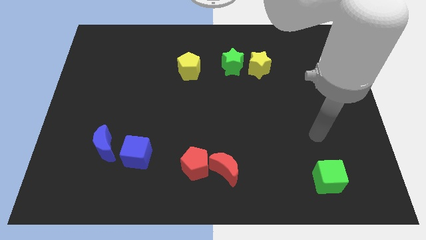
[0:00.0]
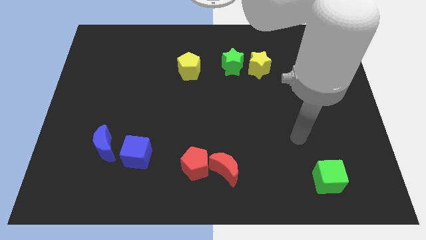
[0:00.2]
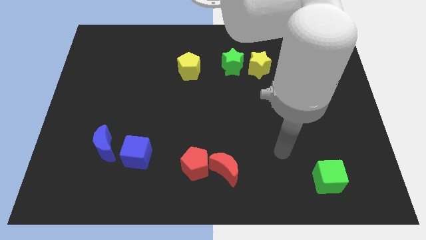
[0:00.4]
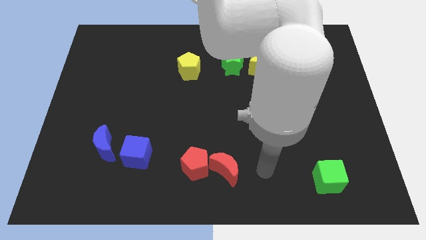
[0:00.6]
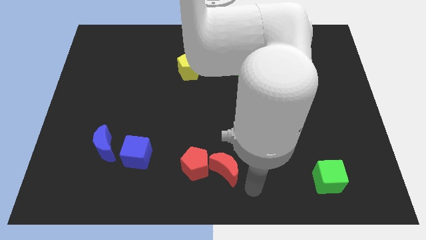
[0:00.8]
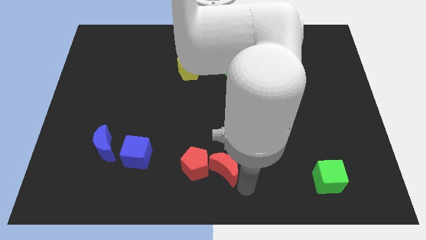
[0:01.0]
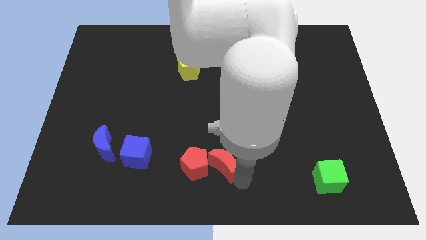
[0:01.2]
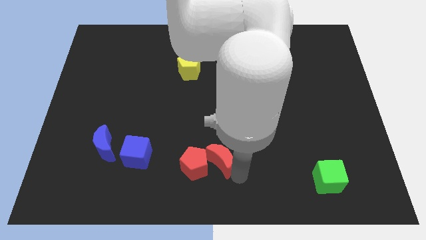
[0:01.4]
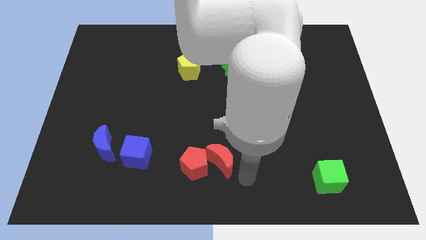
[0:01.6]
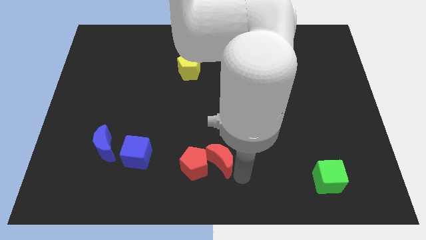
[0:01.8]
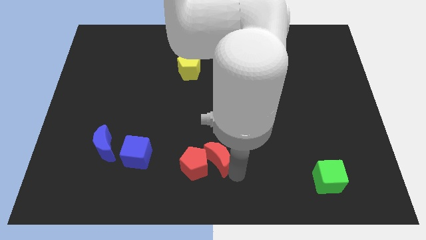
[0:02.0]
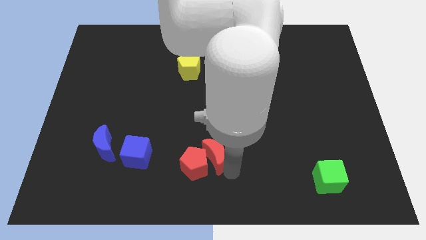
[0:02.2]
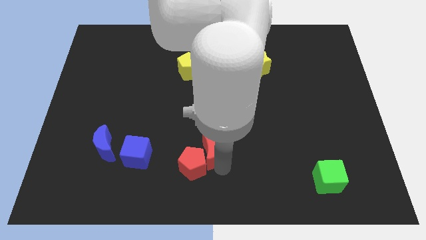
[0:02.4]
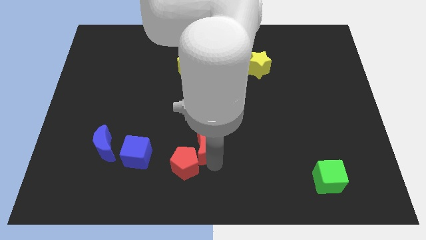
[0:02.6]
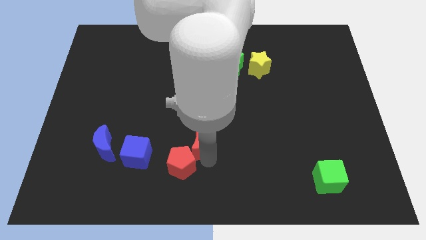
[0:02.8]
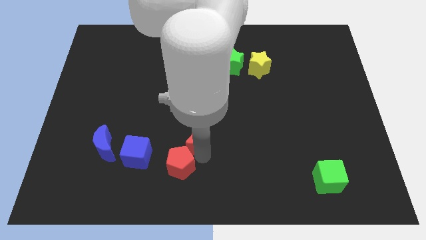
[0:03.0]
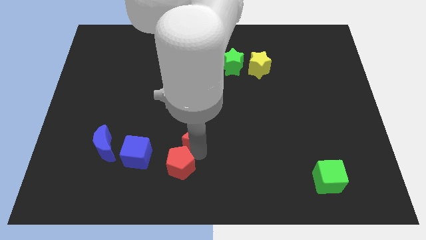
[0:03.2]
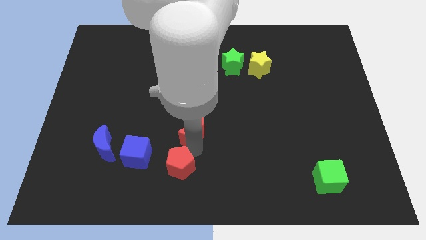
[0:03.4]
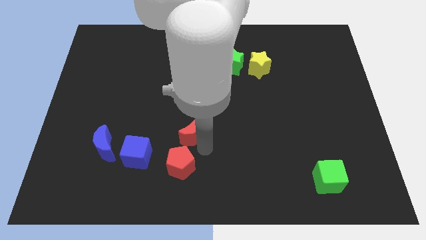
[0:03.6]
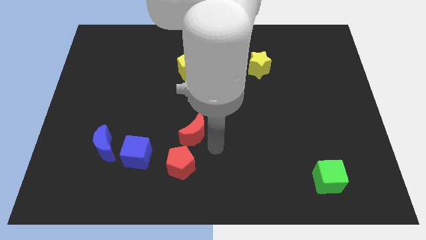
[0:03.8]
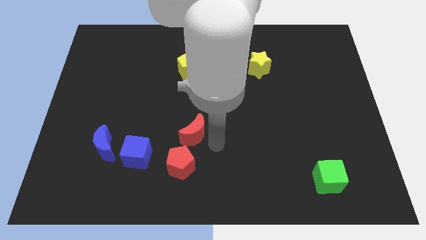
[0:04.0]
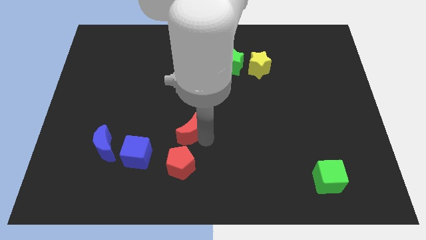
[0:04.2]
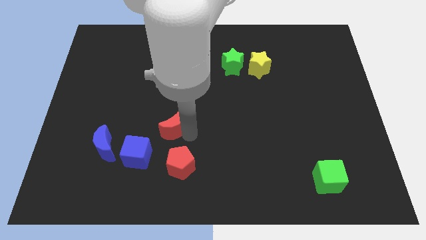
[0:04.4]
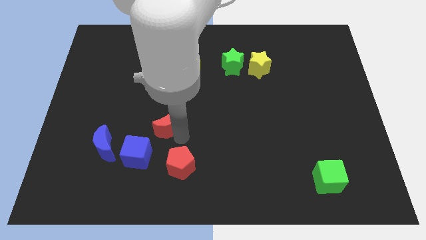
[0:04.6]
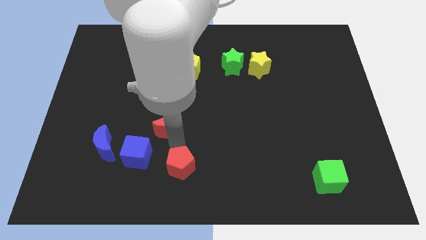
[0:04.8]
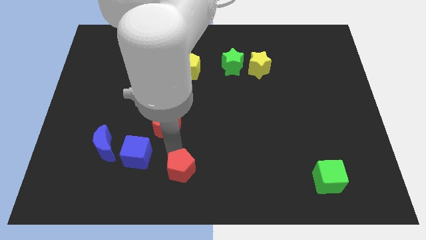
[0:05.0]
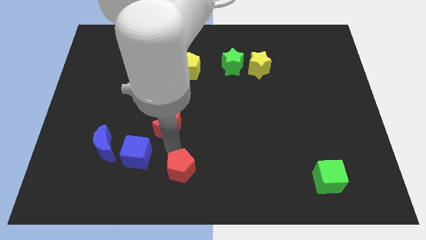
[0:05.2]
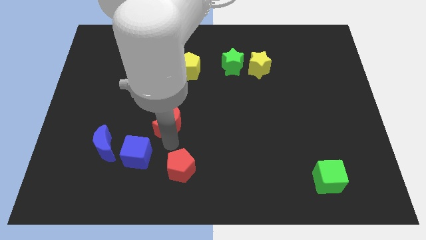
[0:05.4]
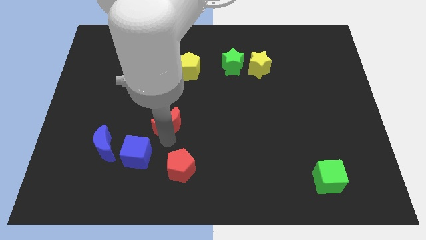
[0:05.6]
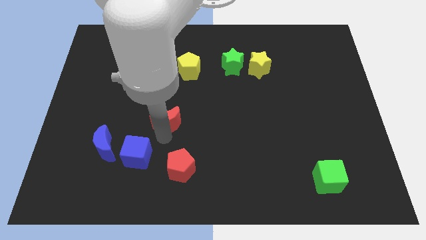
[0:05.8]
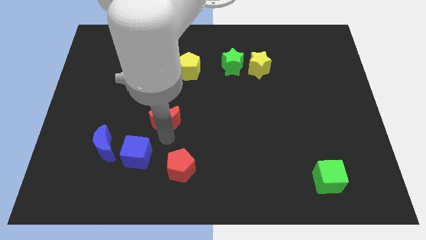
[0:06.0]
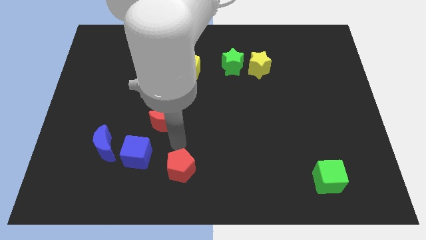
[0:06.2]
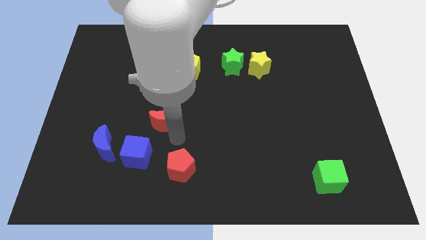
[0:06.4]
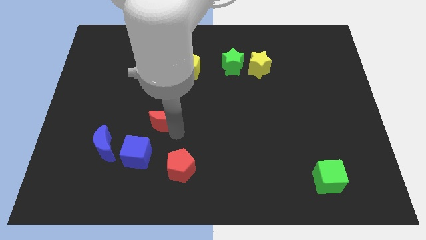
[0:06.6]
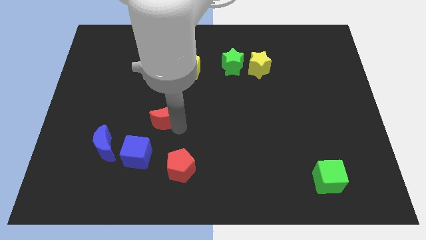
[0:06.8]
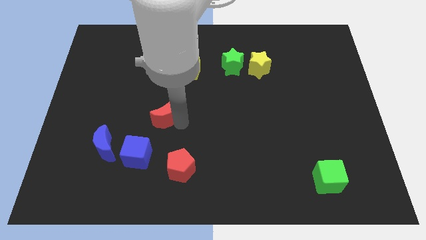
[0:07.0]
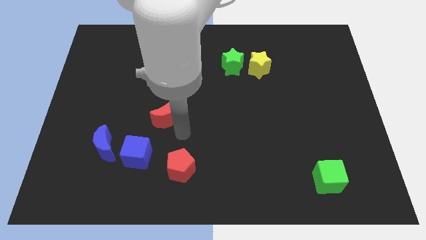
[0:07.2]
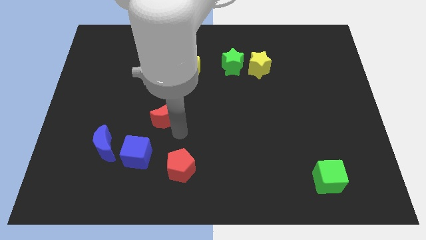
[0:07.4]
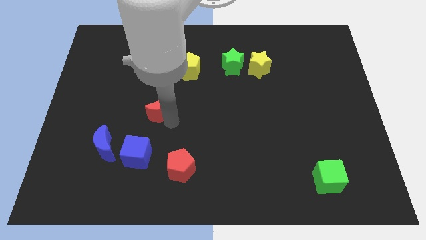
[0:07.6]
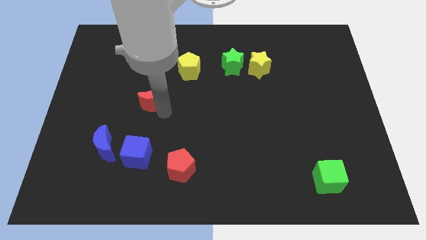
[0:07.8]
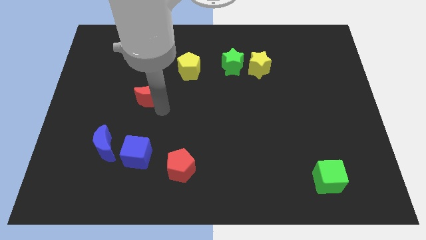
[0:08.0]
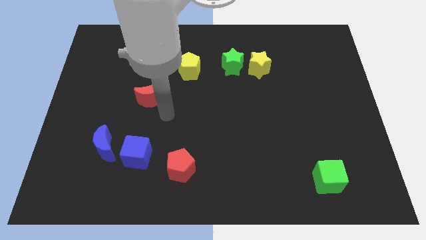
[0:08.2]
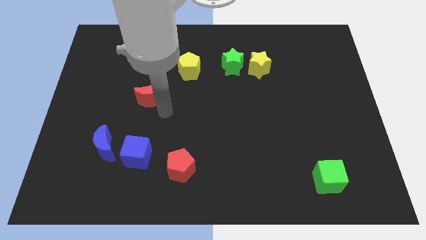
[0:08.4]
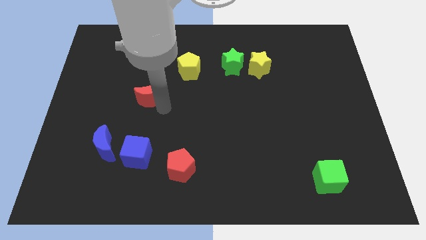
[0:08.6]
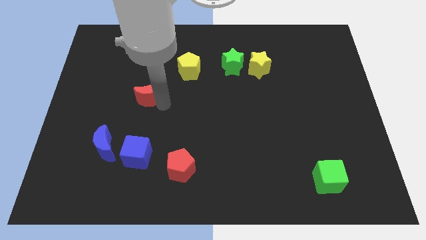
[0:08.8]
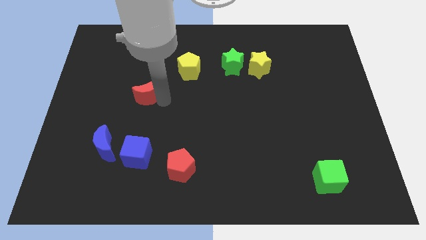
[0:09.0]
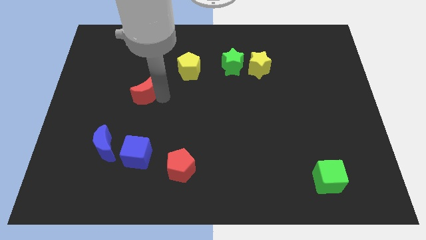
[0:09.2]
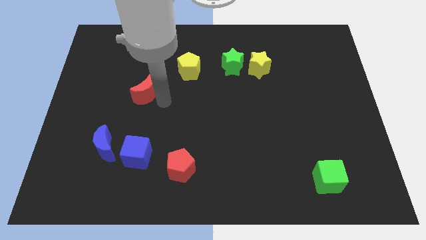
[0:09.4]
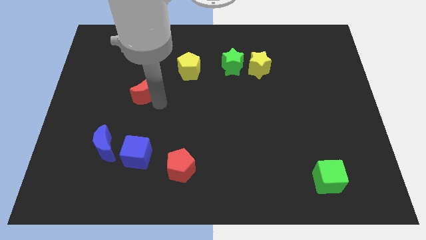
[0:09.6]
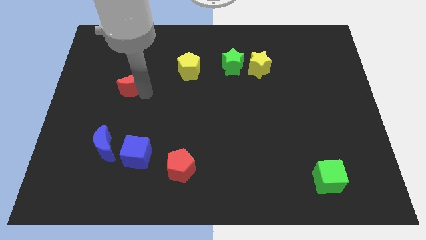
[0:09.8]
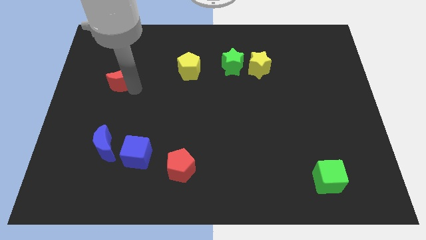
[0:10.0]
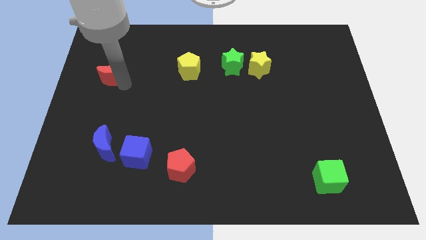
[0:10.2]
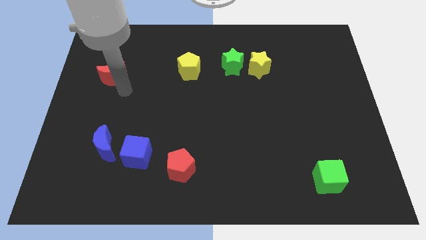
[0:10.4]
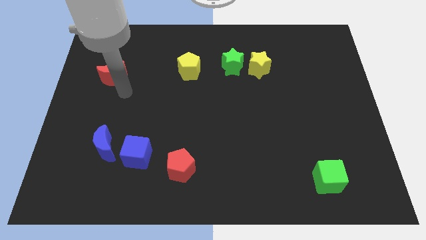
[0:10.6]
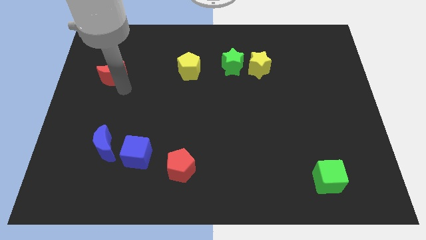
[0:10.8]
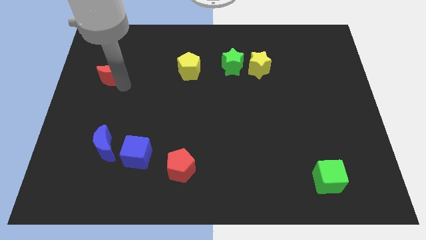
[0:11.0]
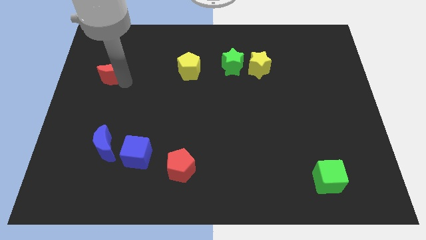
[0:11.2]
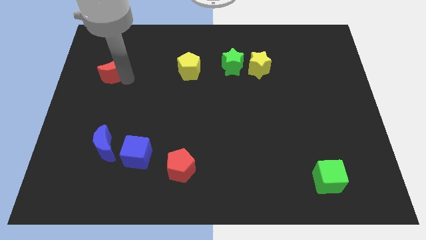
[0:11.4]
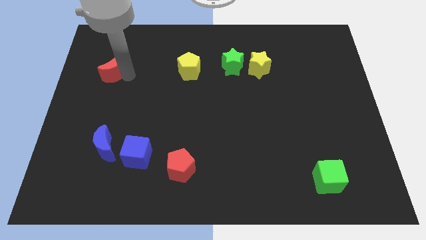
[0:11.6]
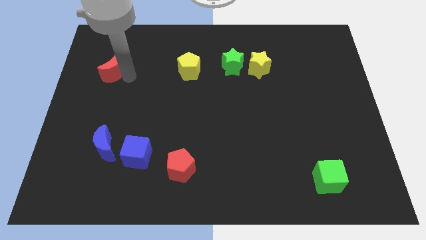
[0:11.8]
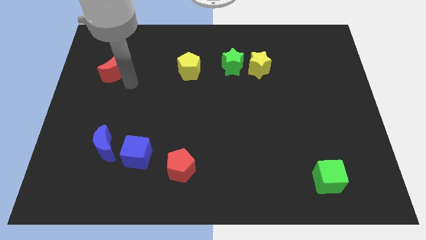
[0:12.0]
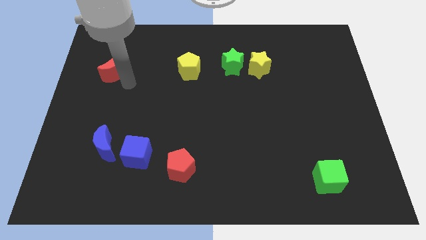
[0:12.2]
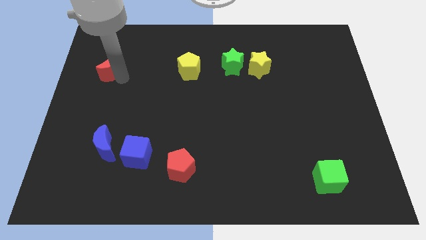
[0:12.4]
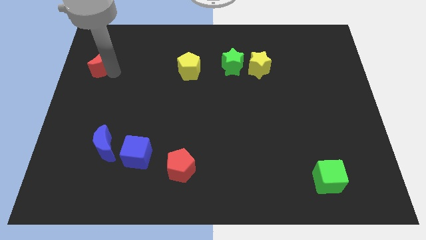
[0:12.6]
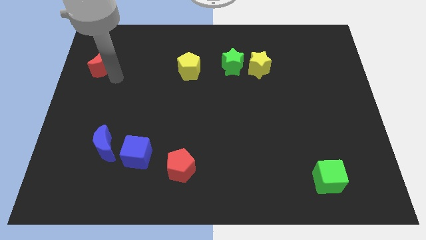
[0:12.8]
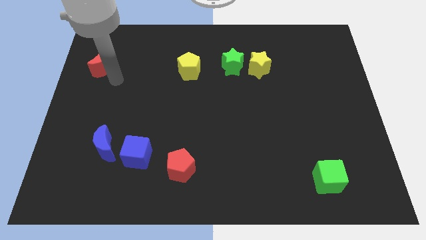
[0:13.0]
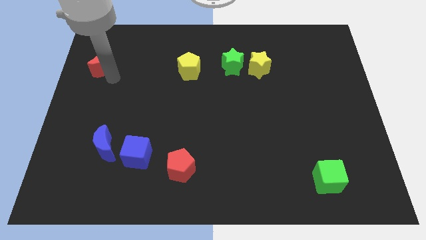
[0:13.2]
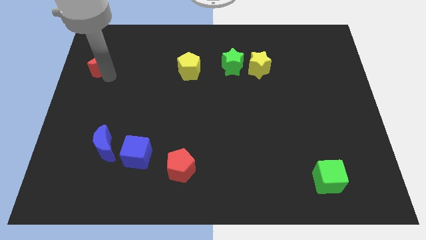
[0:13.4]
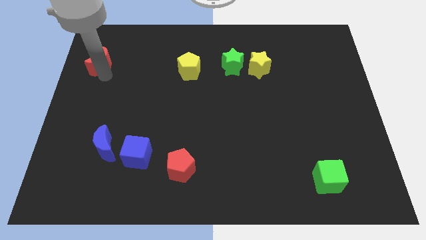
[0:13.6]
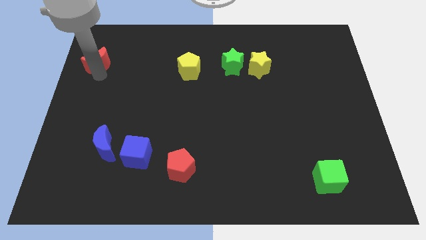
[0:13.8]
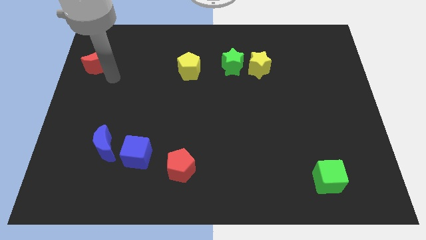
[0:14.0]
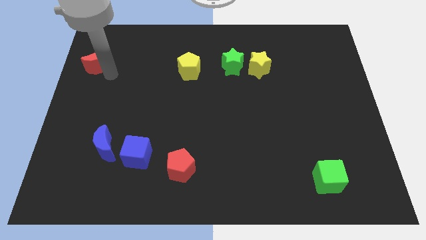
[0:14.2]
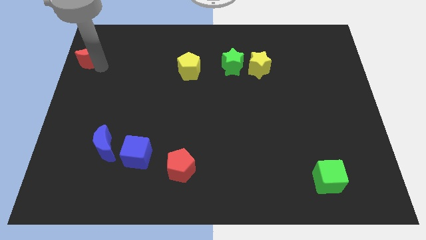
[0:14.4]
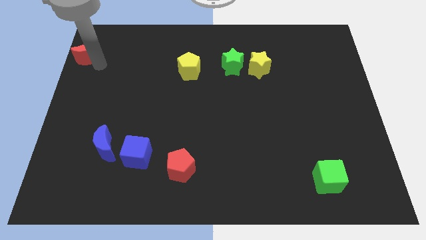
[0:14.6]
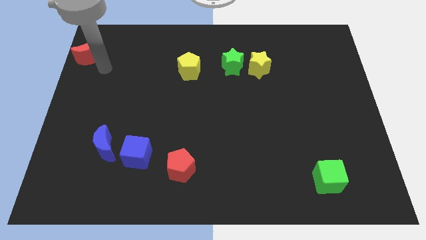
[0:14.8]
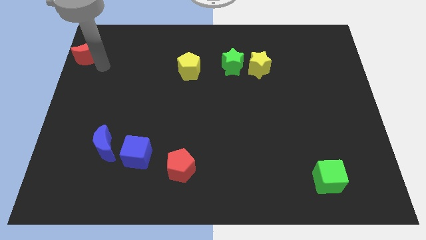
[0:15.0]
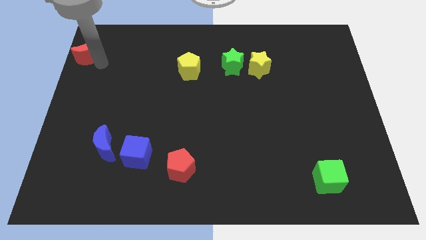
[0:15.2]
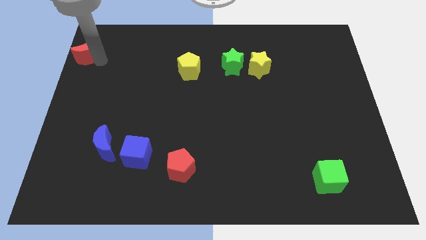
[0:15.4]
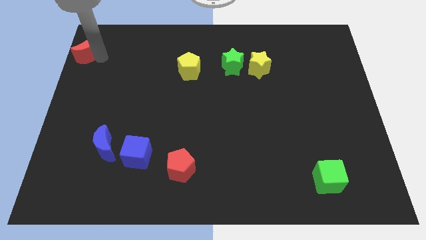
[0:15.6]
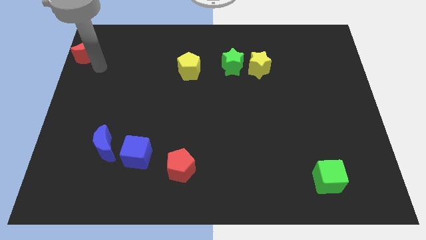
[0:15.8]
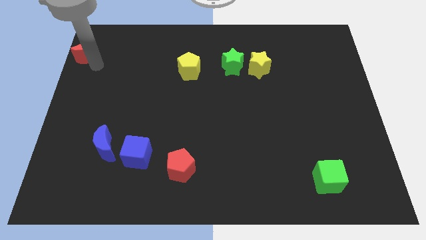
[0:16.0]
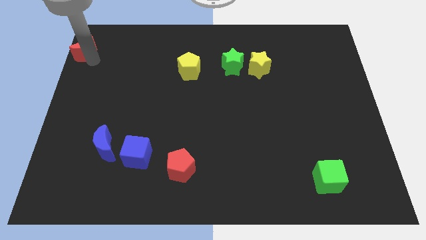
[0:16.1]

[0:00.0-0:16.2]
slide the red moon to the top left corner
